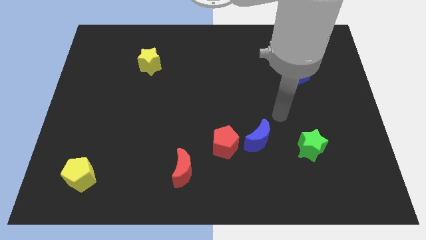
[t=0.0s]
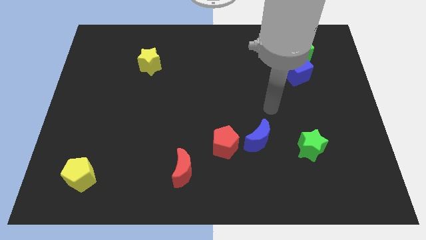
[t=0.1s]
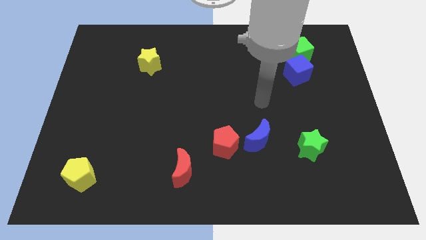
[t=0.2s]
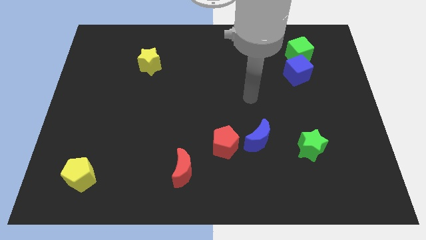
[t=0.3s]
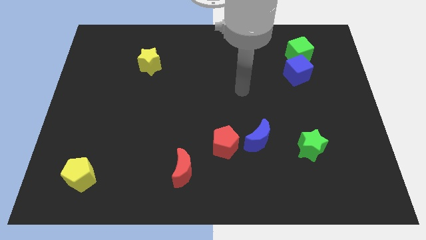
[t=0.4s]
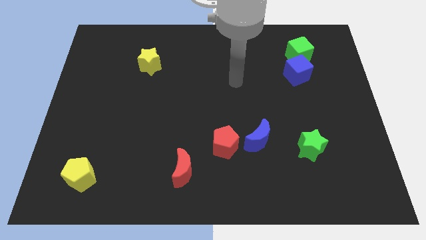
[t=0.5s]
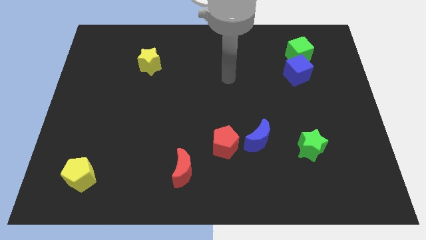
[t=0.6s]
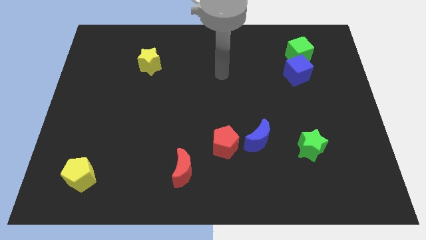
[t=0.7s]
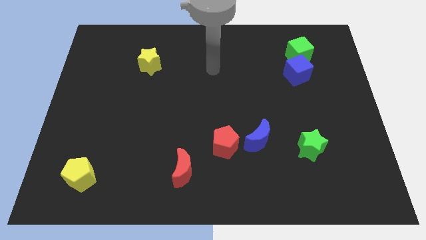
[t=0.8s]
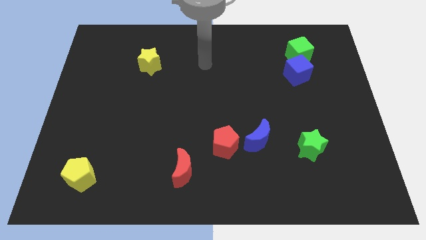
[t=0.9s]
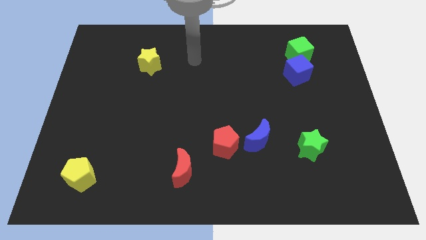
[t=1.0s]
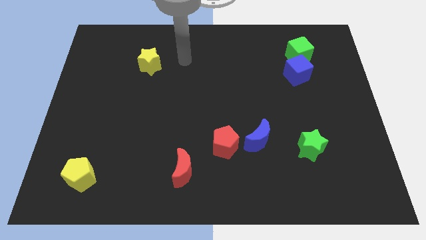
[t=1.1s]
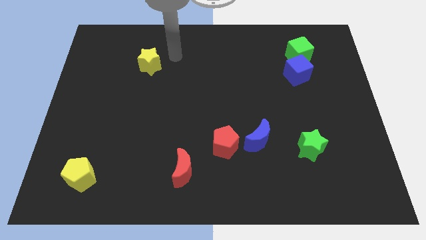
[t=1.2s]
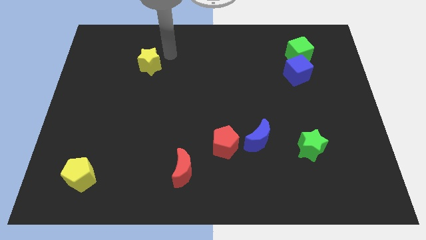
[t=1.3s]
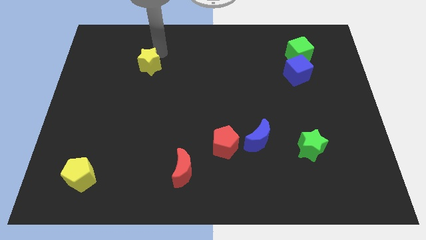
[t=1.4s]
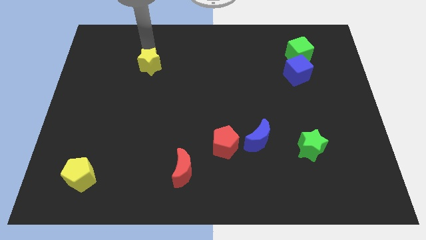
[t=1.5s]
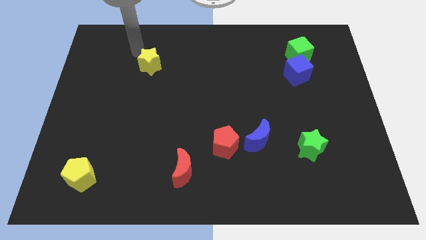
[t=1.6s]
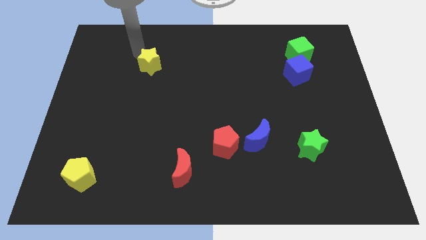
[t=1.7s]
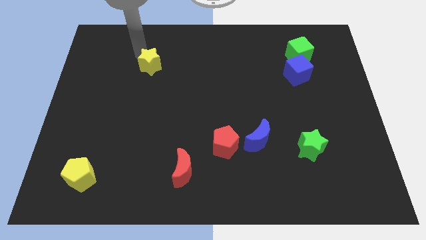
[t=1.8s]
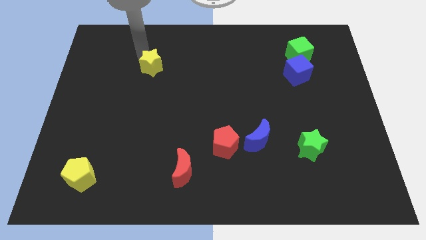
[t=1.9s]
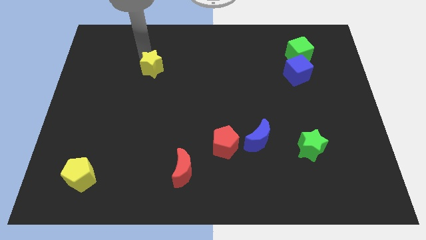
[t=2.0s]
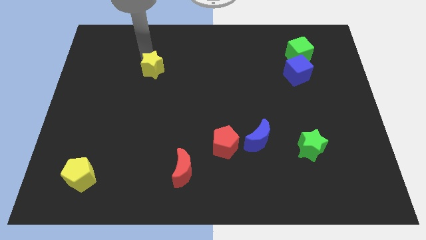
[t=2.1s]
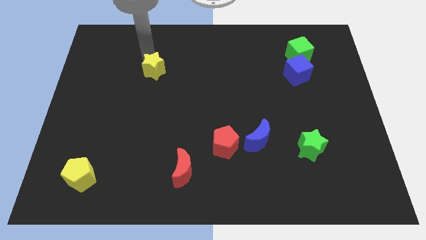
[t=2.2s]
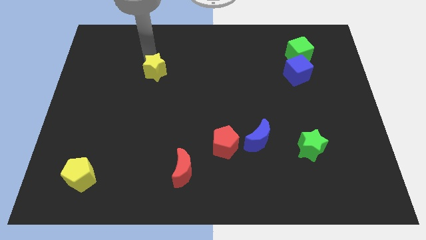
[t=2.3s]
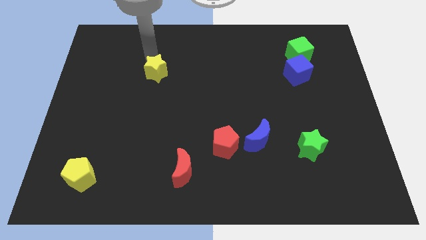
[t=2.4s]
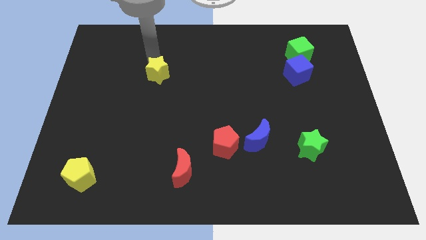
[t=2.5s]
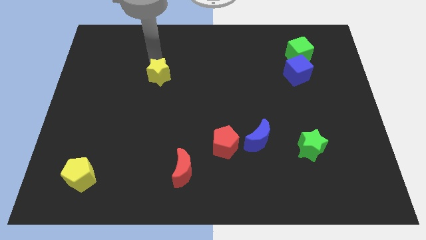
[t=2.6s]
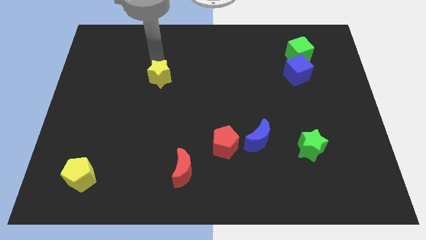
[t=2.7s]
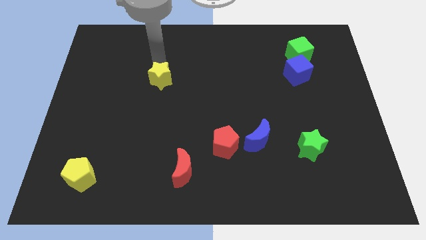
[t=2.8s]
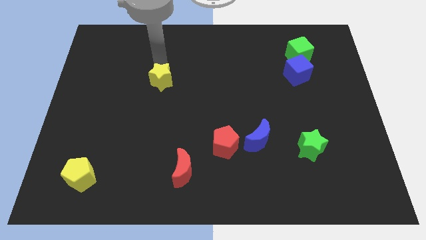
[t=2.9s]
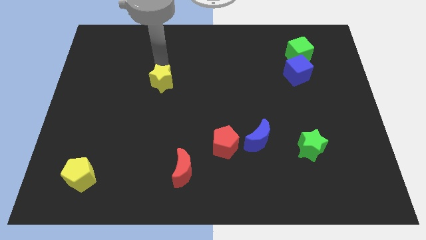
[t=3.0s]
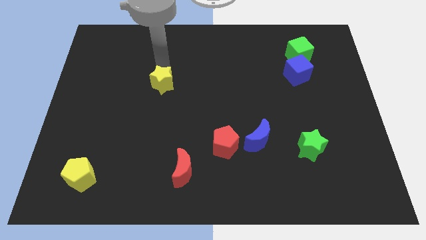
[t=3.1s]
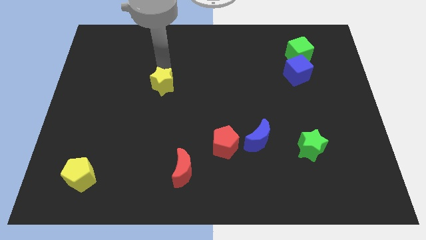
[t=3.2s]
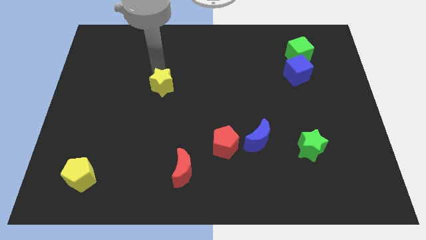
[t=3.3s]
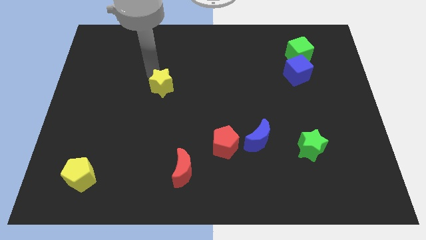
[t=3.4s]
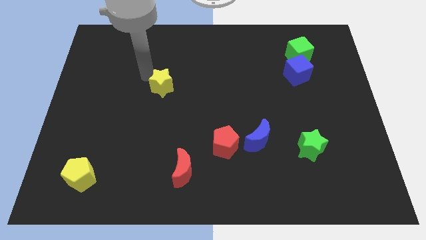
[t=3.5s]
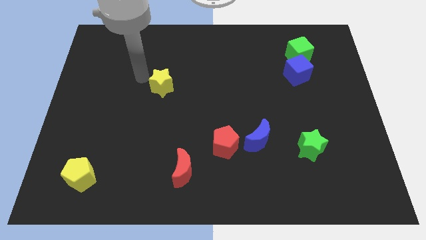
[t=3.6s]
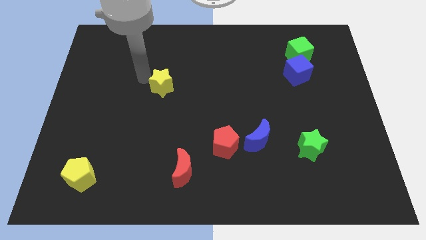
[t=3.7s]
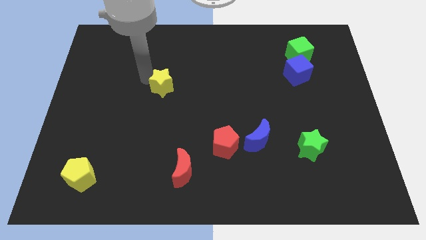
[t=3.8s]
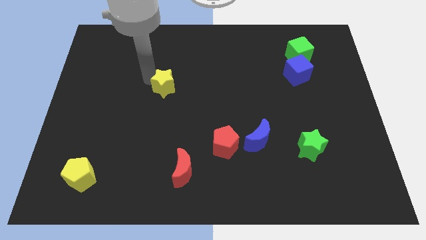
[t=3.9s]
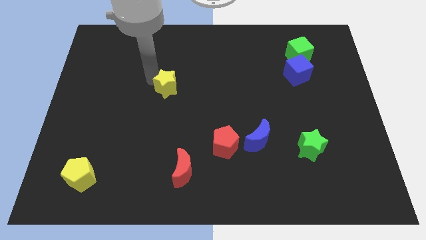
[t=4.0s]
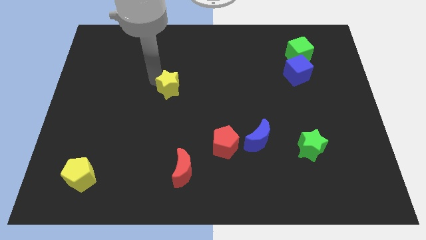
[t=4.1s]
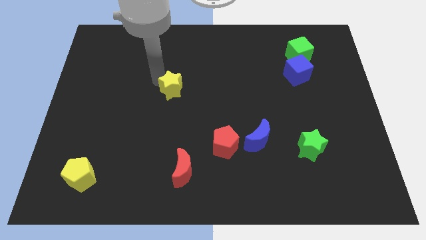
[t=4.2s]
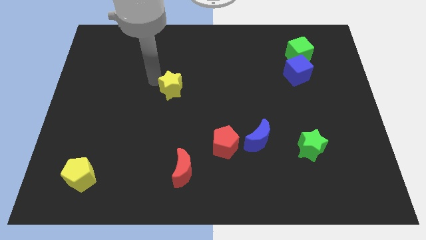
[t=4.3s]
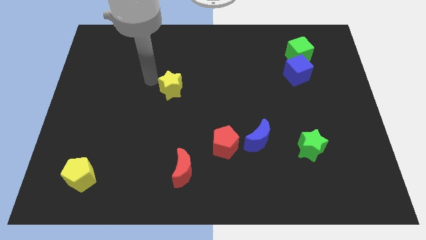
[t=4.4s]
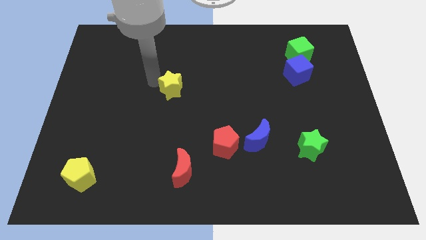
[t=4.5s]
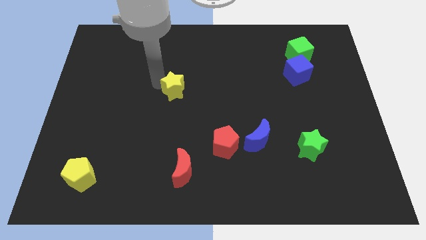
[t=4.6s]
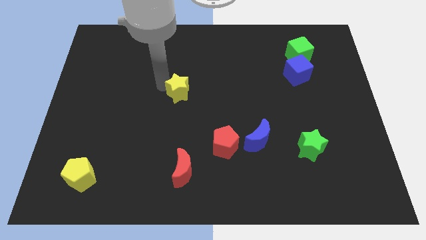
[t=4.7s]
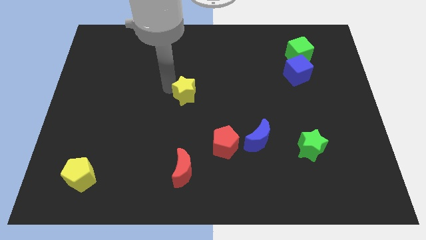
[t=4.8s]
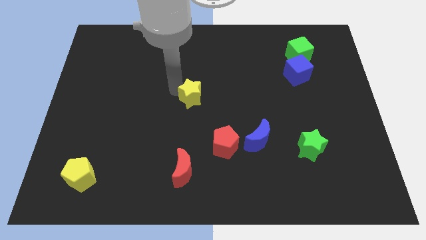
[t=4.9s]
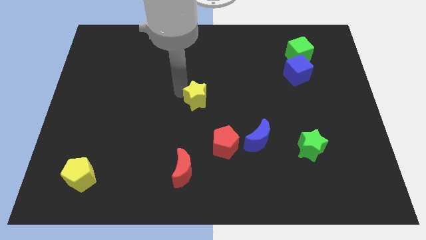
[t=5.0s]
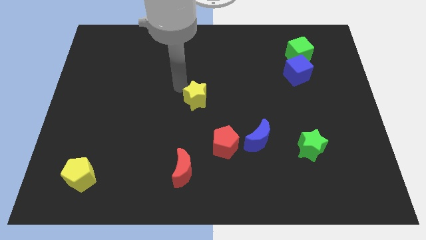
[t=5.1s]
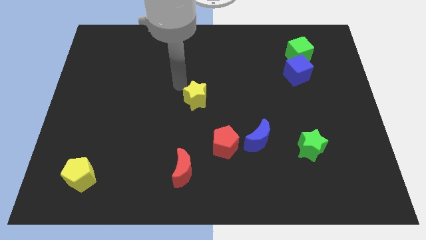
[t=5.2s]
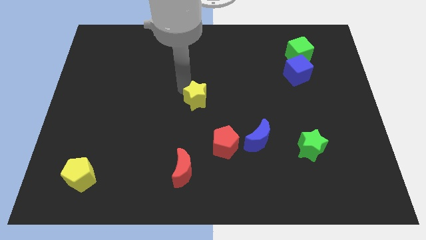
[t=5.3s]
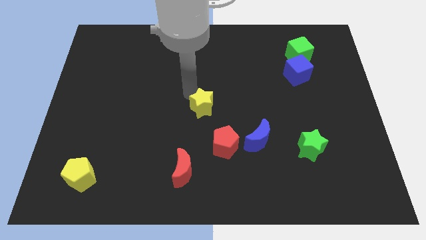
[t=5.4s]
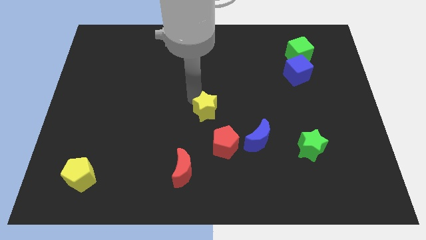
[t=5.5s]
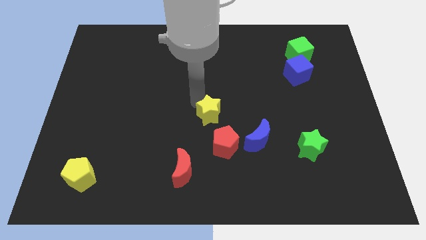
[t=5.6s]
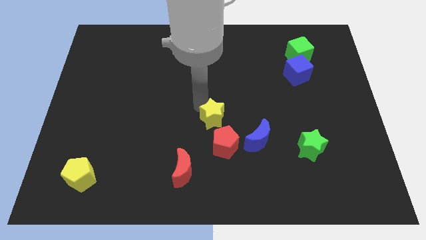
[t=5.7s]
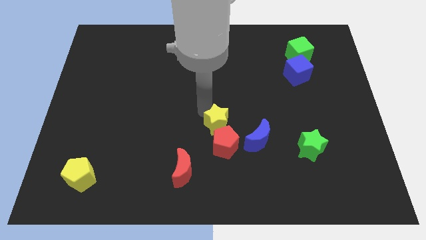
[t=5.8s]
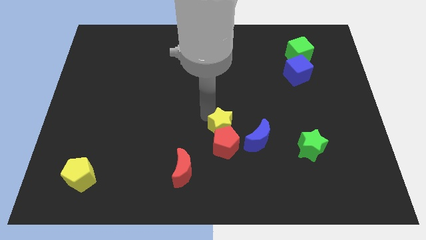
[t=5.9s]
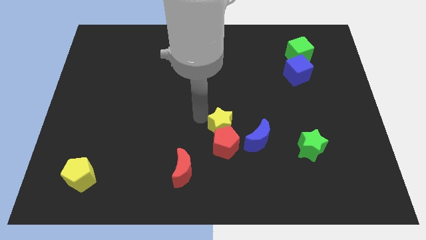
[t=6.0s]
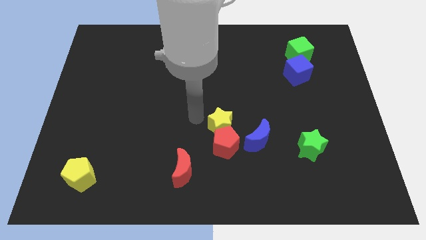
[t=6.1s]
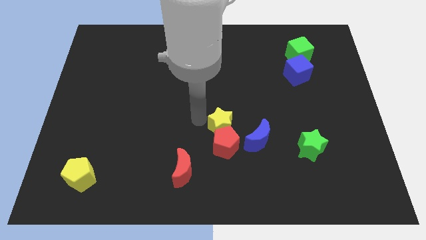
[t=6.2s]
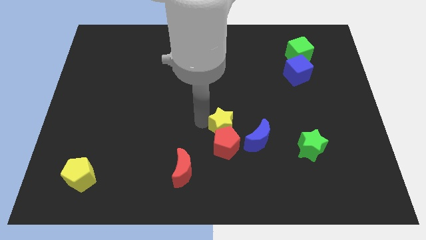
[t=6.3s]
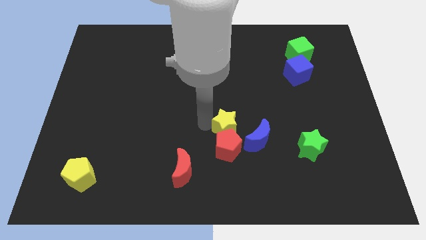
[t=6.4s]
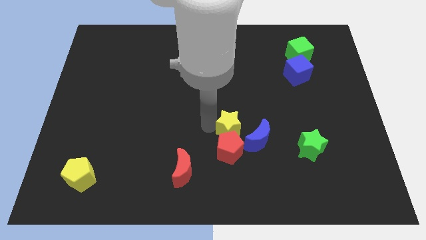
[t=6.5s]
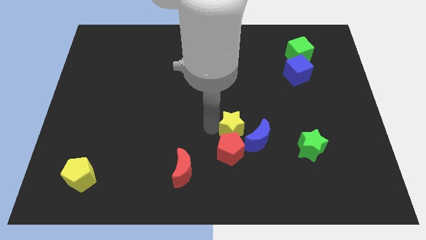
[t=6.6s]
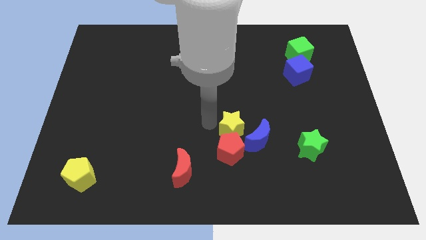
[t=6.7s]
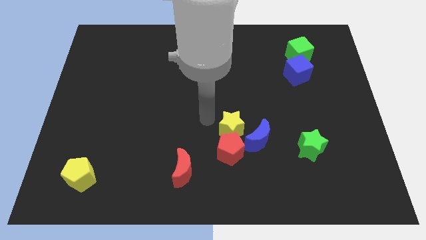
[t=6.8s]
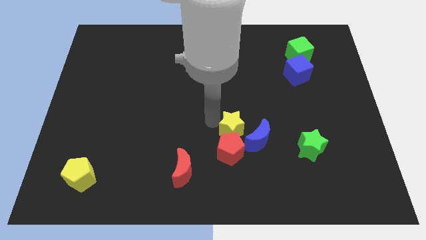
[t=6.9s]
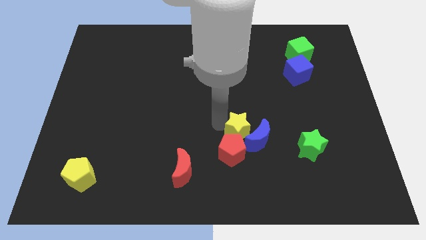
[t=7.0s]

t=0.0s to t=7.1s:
push the yellow star next to the blue moon
